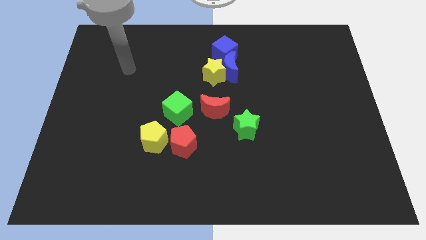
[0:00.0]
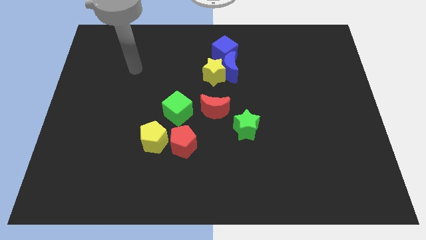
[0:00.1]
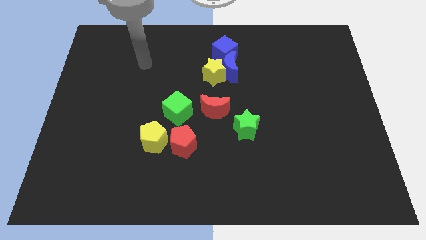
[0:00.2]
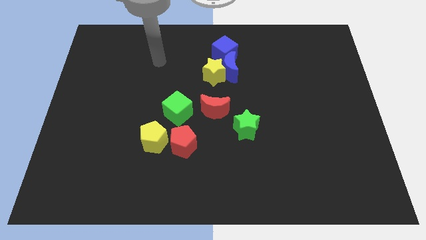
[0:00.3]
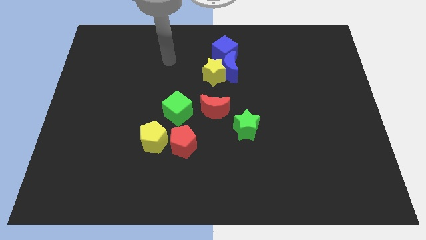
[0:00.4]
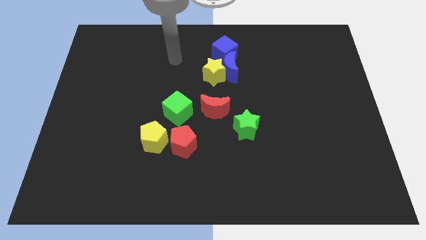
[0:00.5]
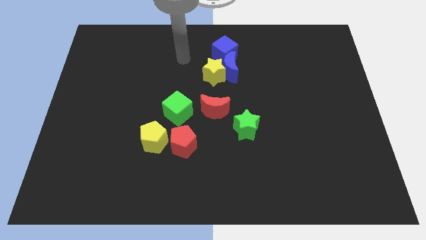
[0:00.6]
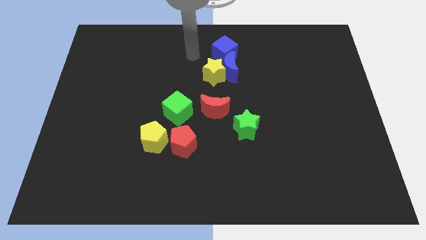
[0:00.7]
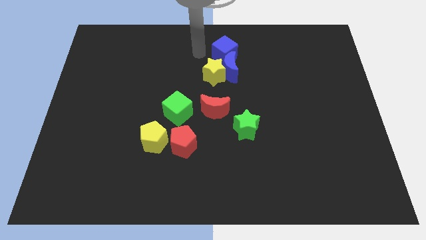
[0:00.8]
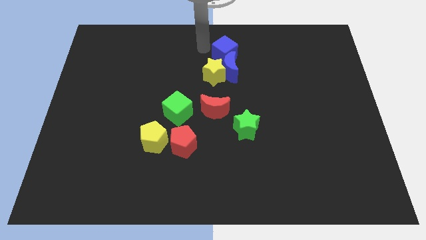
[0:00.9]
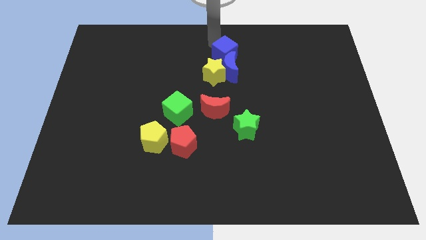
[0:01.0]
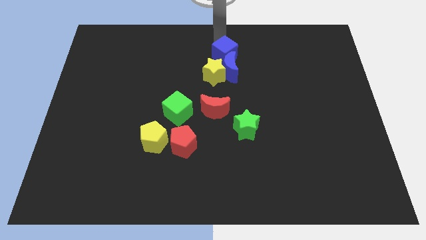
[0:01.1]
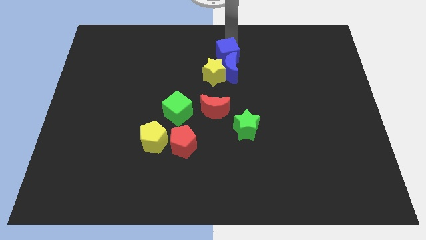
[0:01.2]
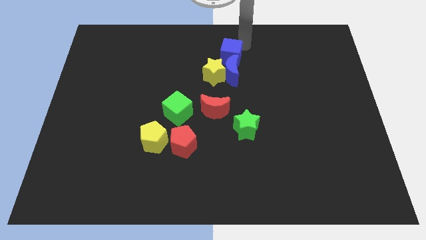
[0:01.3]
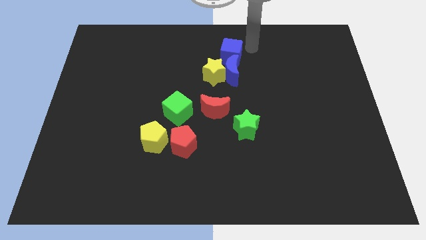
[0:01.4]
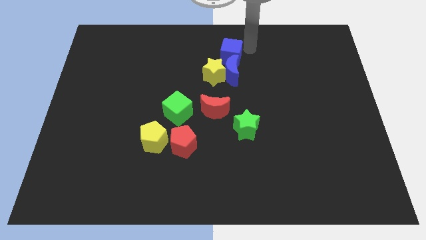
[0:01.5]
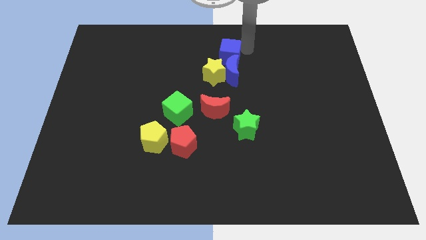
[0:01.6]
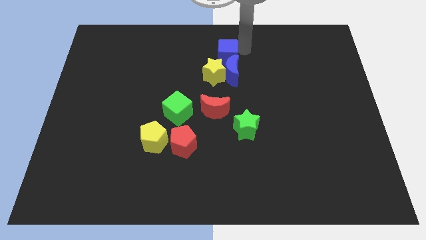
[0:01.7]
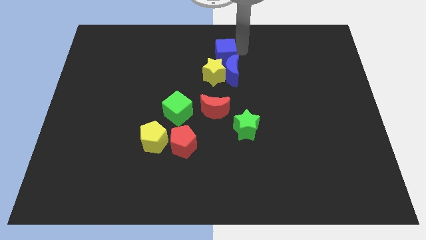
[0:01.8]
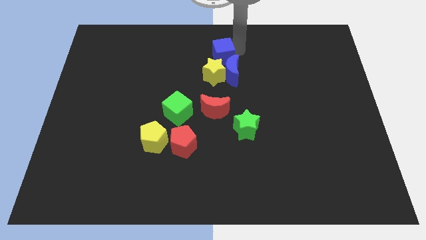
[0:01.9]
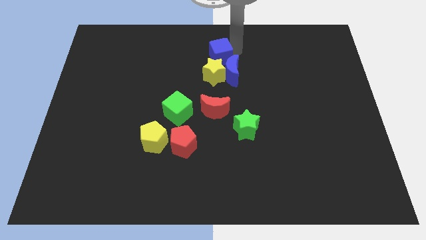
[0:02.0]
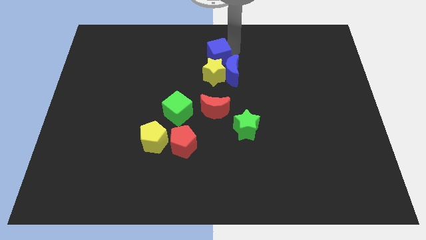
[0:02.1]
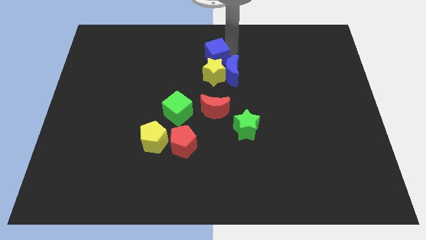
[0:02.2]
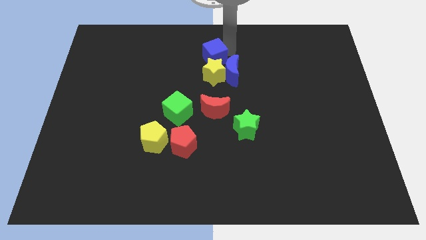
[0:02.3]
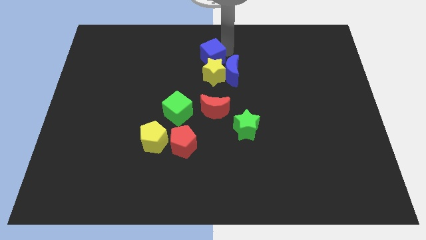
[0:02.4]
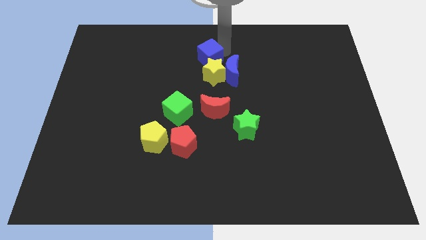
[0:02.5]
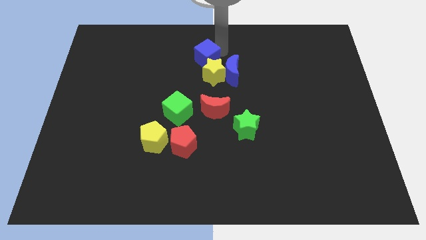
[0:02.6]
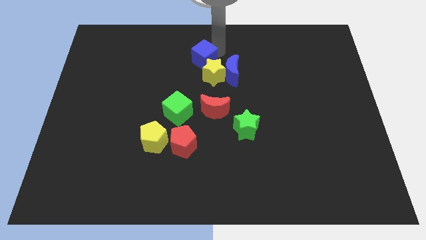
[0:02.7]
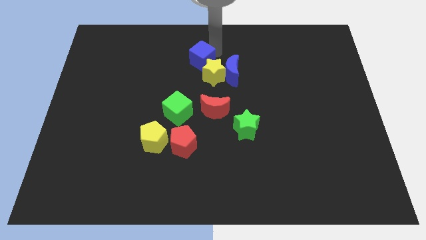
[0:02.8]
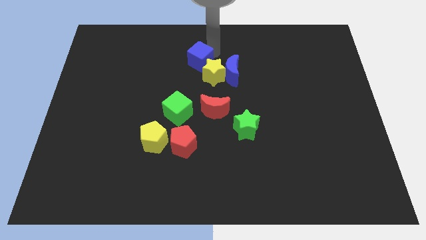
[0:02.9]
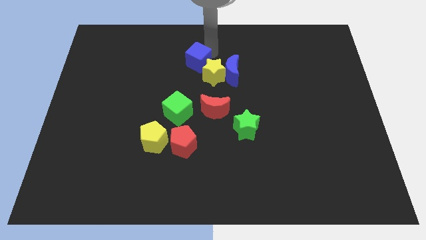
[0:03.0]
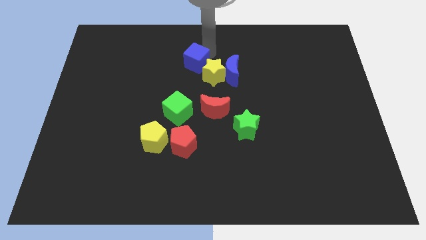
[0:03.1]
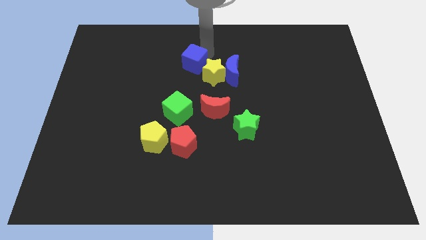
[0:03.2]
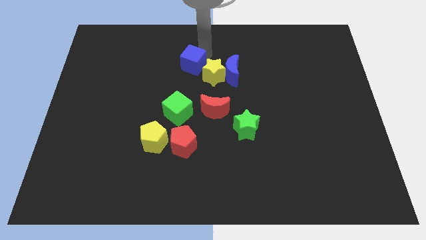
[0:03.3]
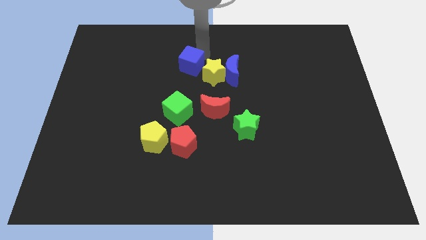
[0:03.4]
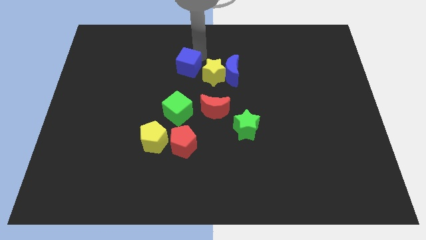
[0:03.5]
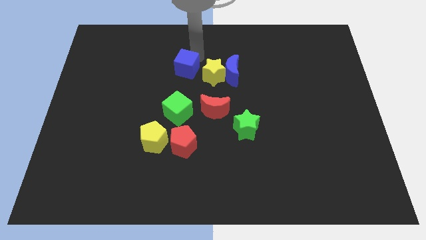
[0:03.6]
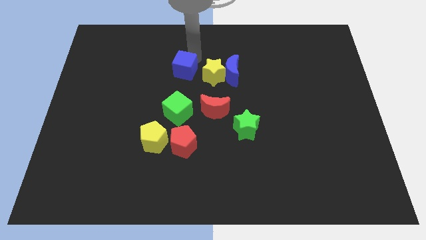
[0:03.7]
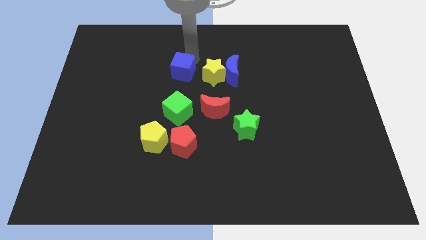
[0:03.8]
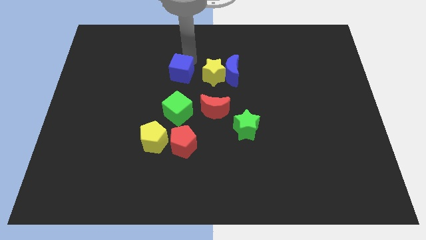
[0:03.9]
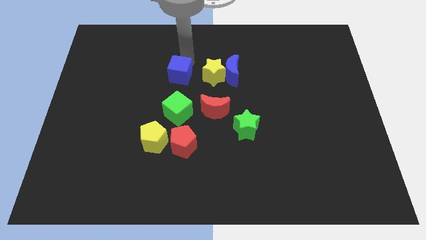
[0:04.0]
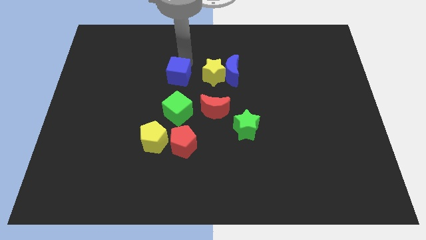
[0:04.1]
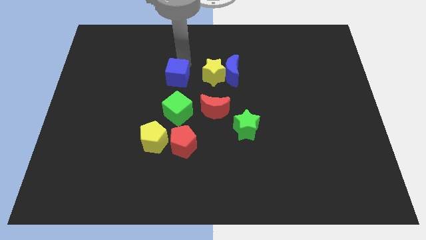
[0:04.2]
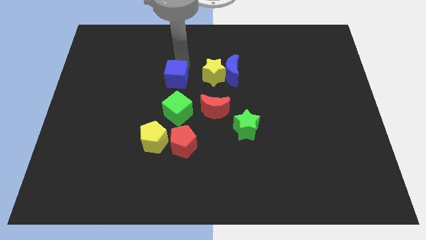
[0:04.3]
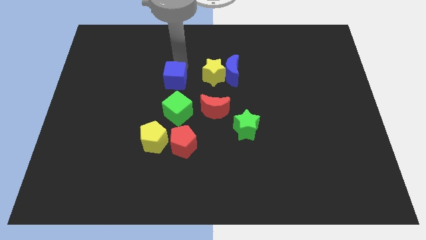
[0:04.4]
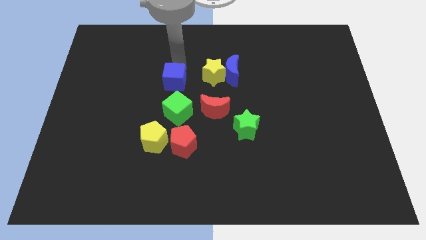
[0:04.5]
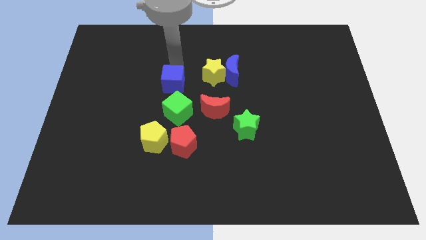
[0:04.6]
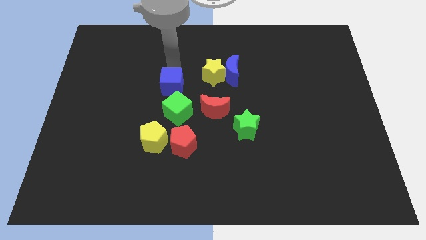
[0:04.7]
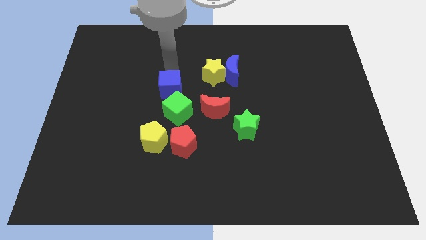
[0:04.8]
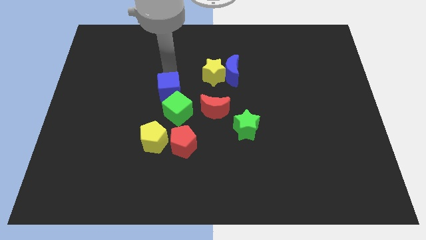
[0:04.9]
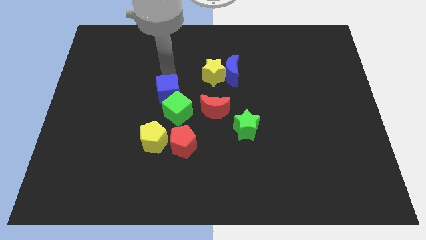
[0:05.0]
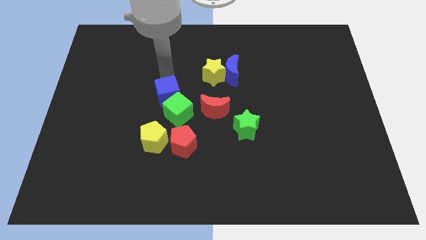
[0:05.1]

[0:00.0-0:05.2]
move the blue cube next to the green cube

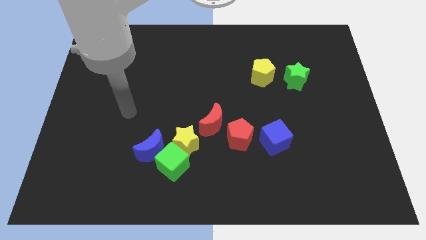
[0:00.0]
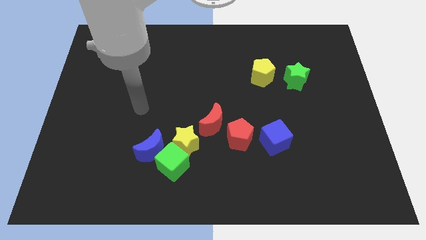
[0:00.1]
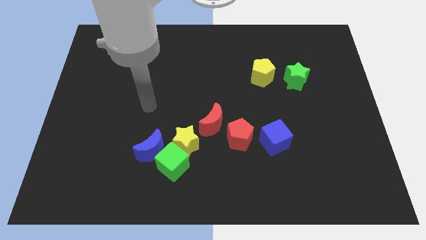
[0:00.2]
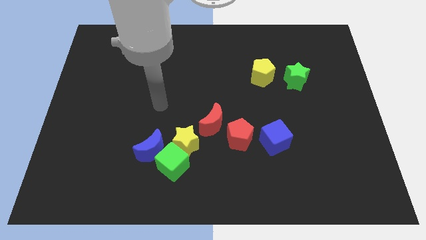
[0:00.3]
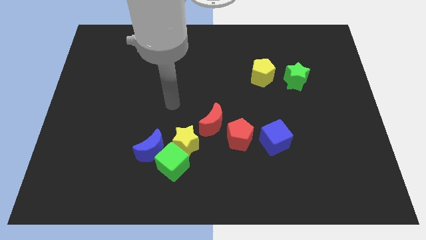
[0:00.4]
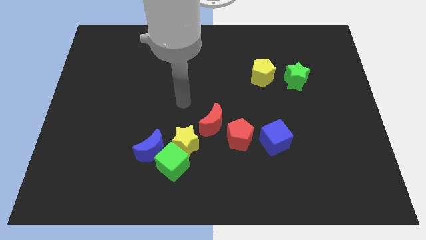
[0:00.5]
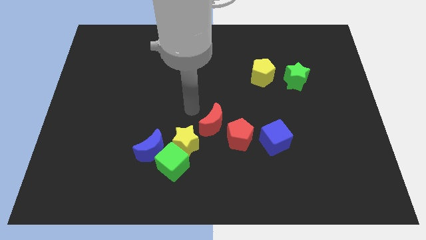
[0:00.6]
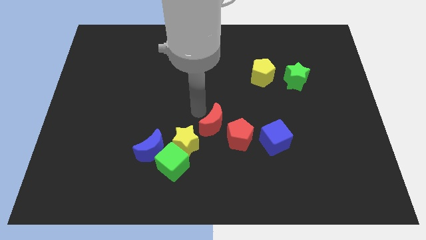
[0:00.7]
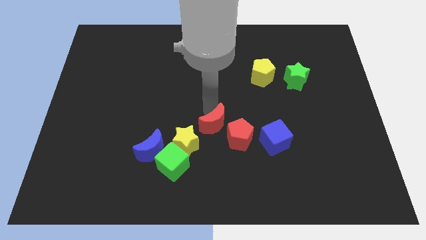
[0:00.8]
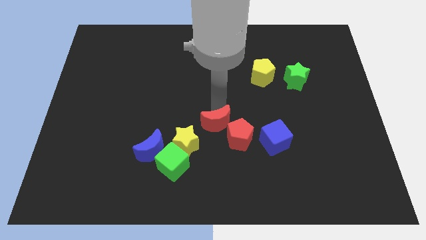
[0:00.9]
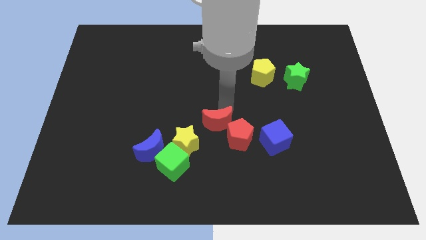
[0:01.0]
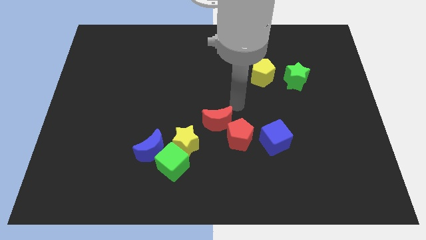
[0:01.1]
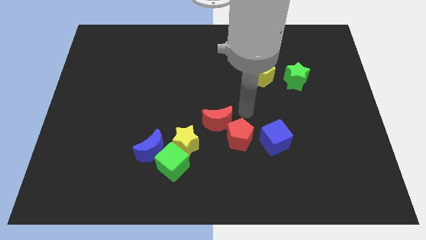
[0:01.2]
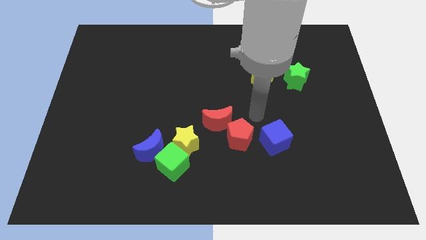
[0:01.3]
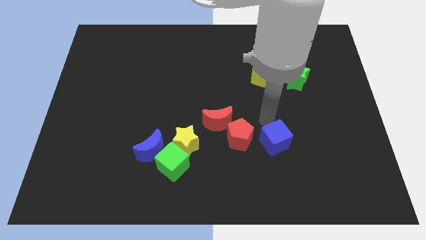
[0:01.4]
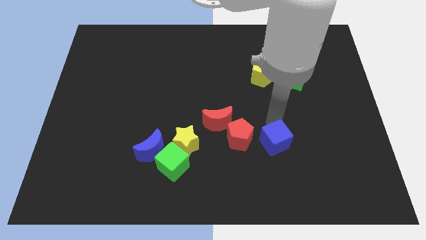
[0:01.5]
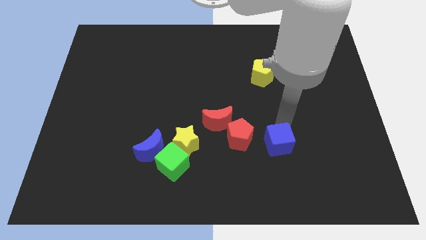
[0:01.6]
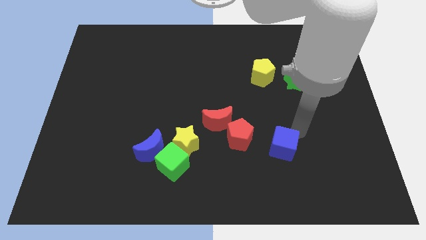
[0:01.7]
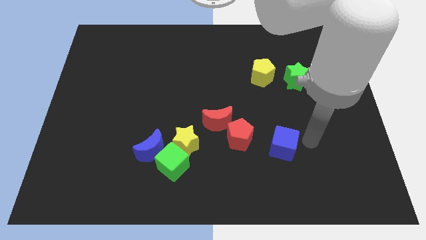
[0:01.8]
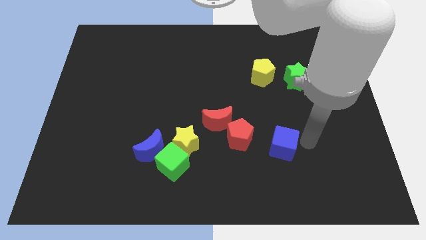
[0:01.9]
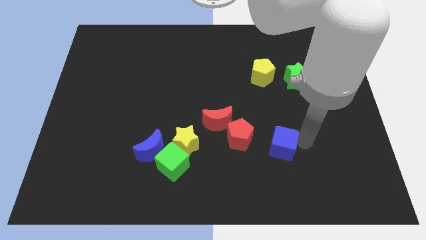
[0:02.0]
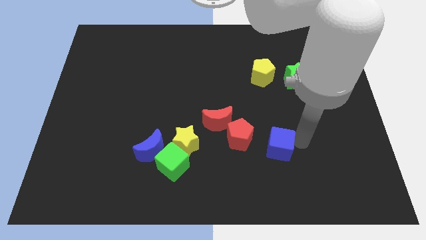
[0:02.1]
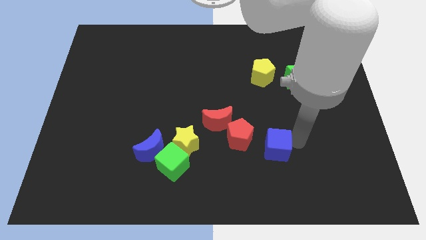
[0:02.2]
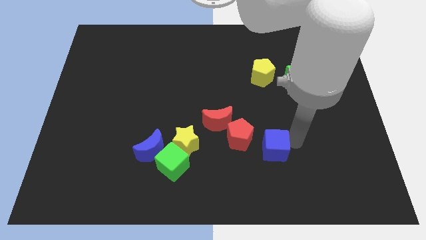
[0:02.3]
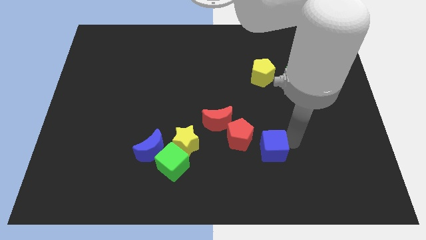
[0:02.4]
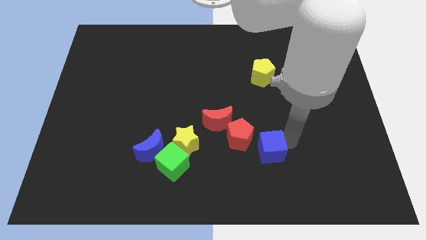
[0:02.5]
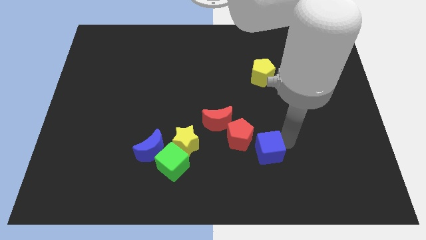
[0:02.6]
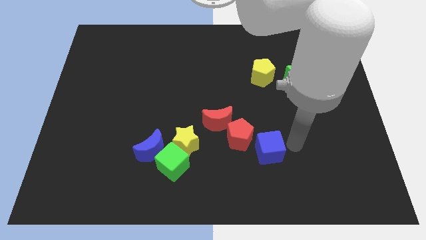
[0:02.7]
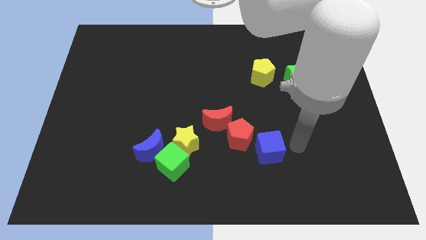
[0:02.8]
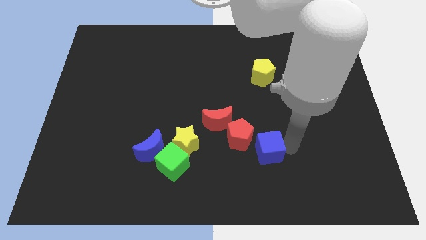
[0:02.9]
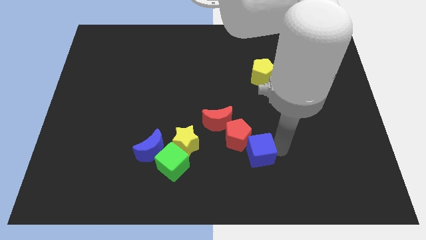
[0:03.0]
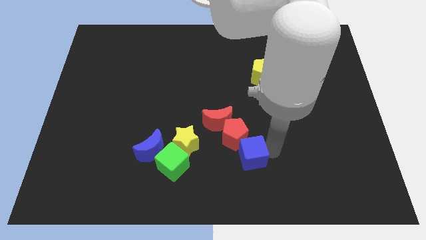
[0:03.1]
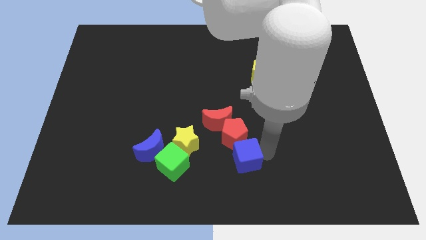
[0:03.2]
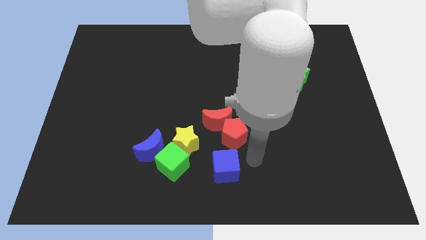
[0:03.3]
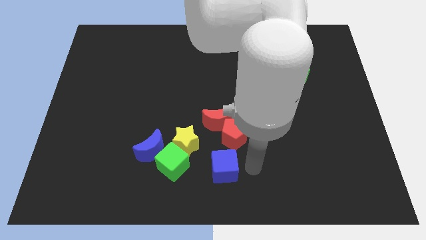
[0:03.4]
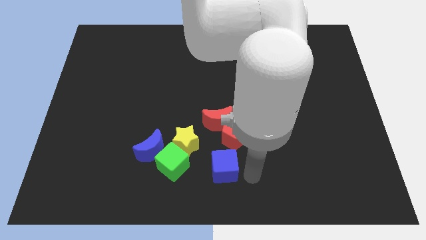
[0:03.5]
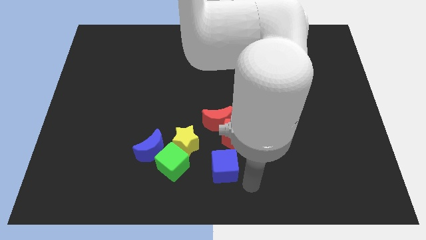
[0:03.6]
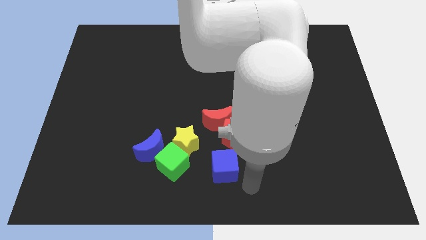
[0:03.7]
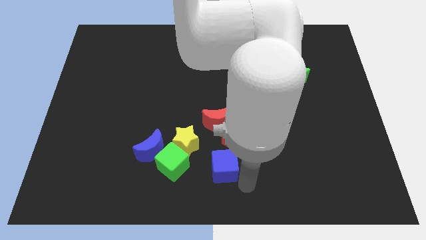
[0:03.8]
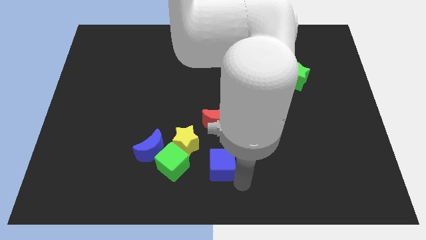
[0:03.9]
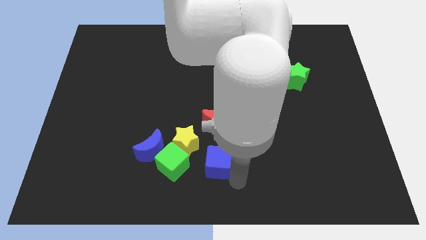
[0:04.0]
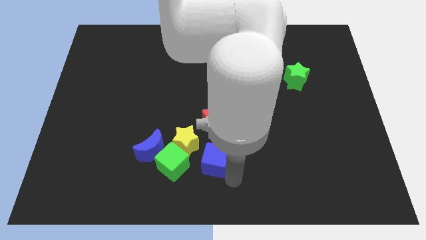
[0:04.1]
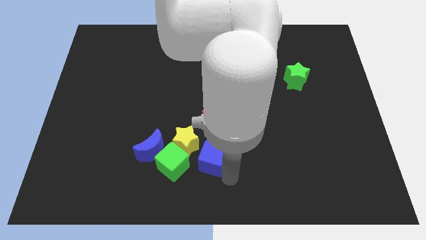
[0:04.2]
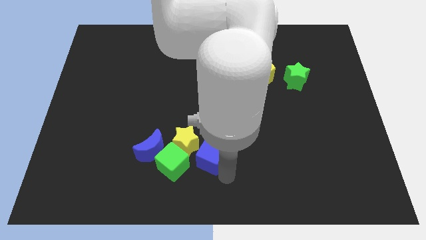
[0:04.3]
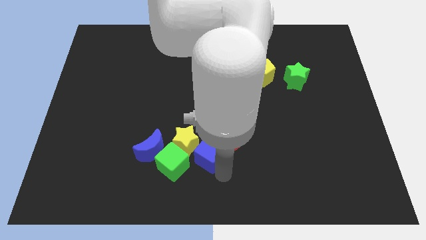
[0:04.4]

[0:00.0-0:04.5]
move the blue cube towards the yellow star
